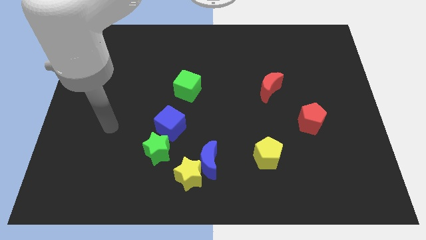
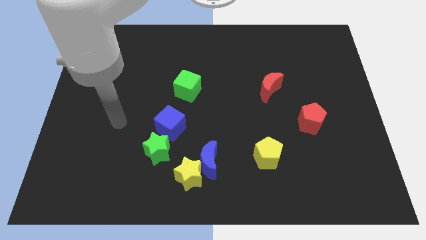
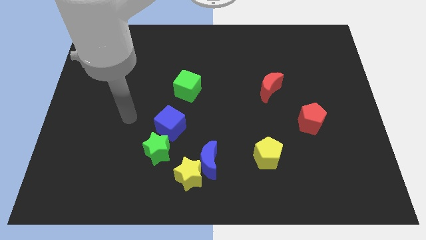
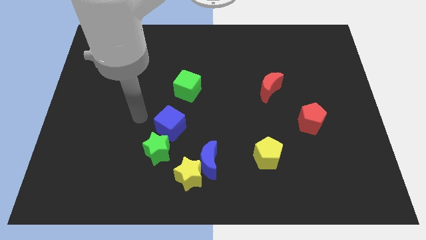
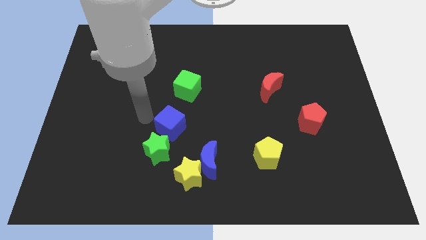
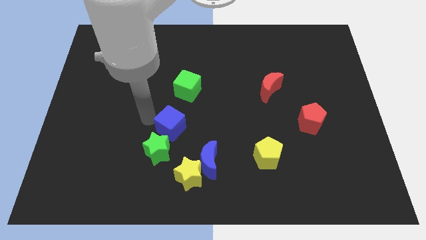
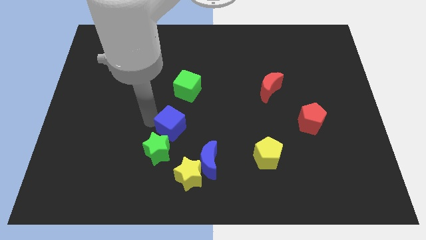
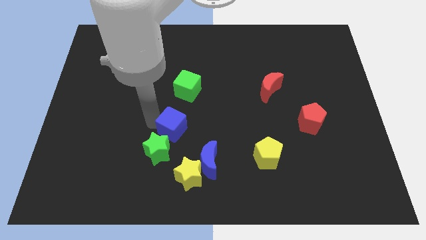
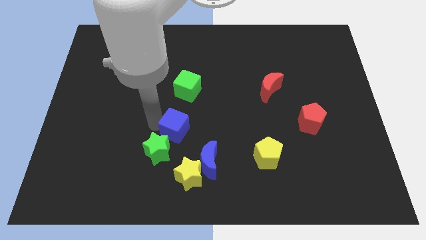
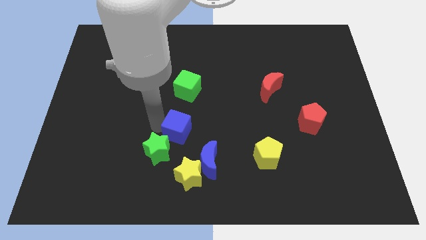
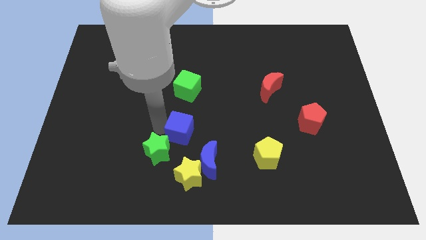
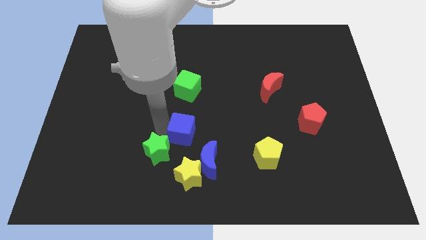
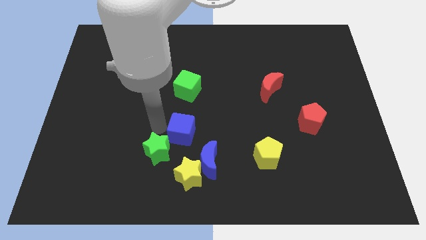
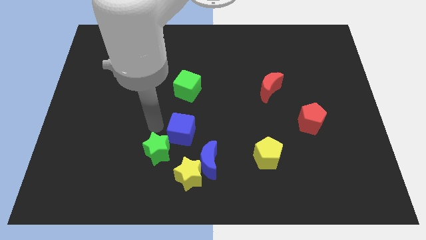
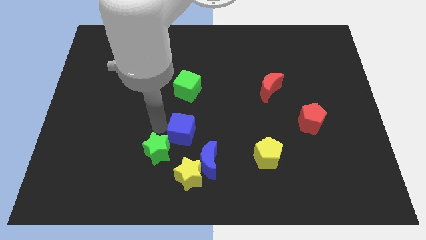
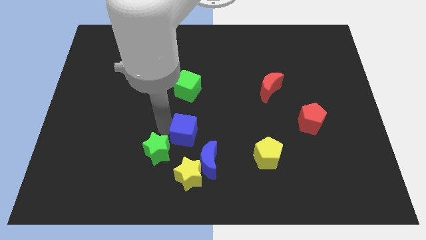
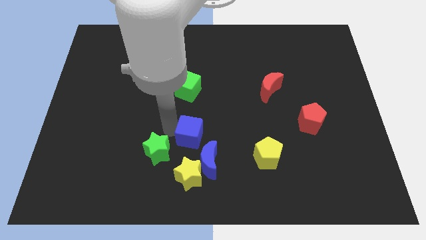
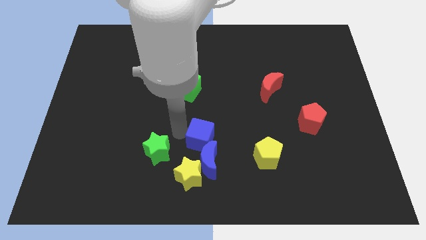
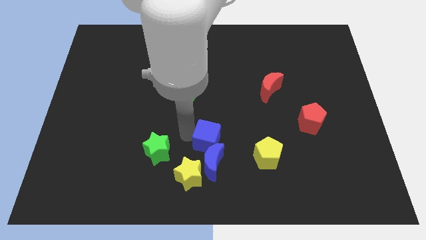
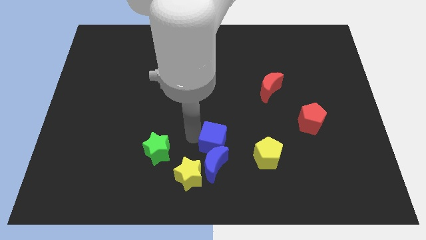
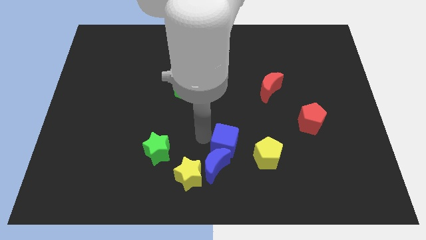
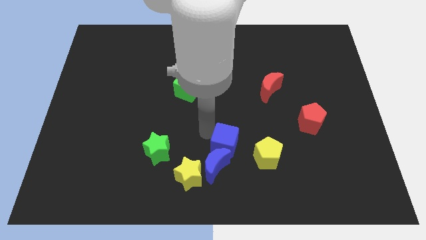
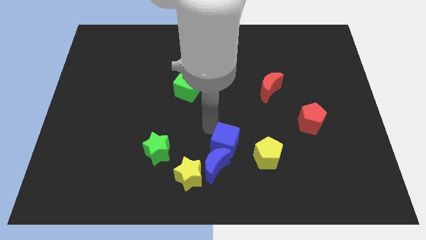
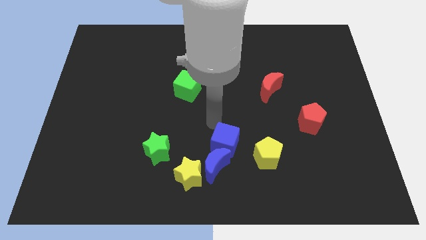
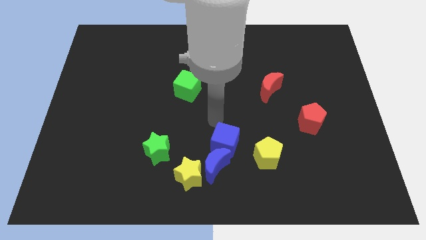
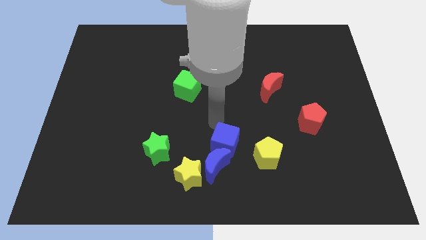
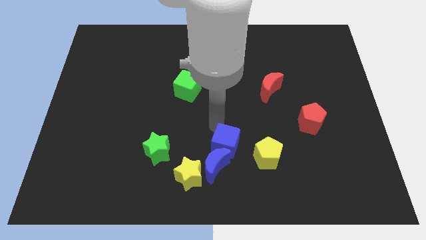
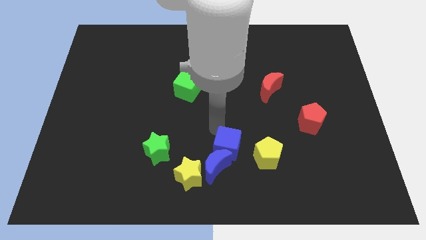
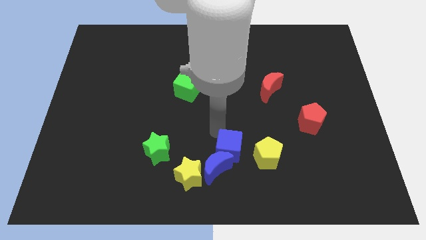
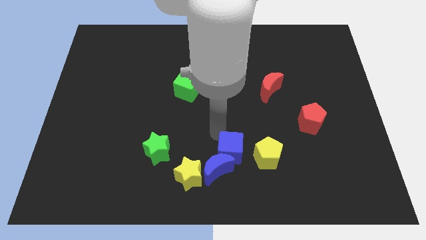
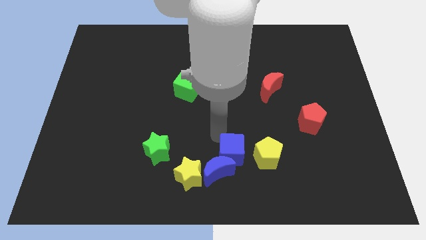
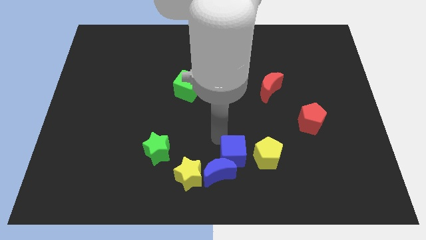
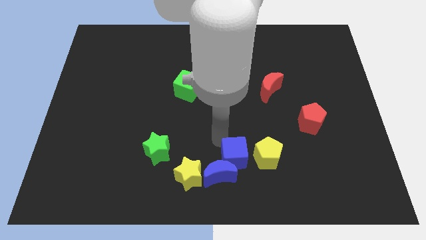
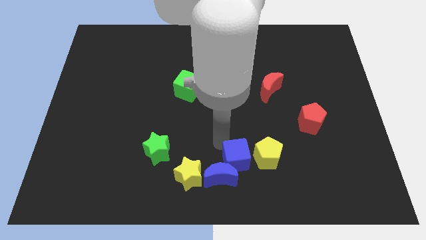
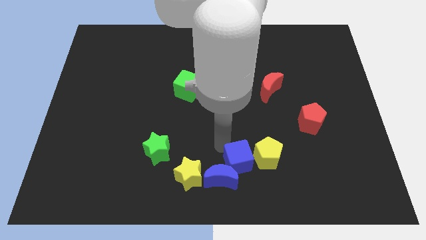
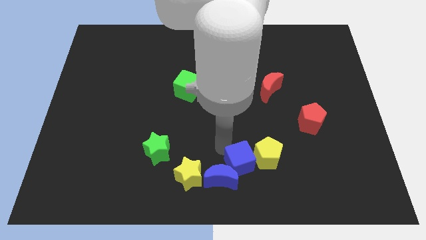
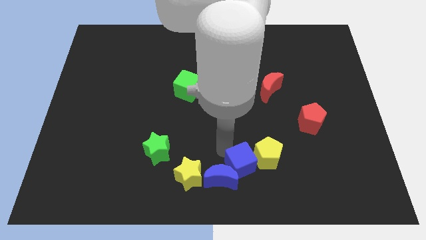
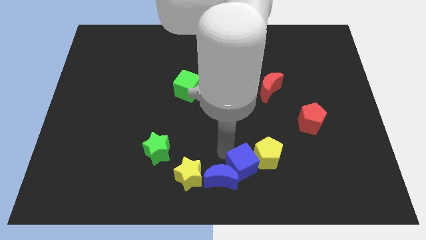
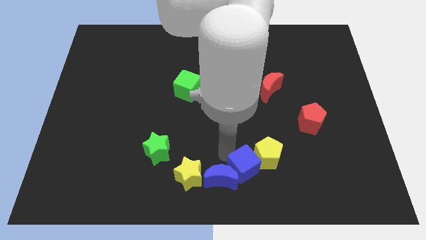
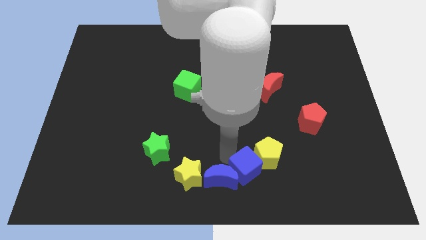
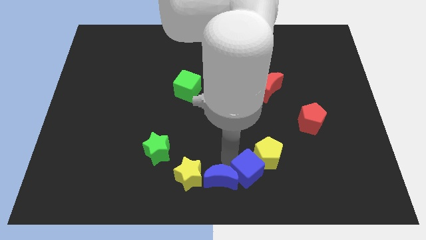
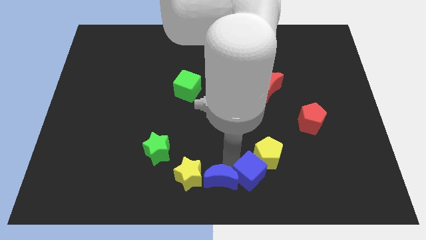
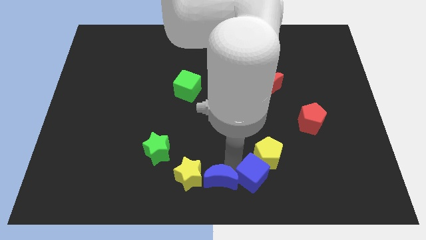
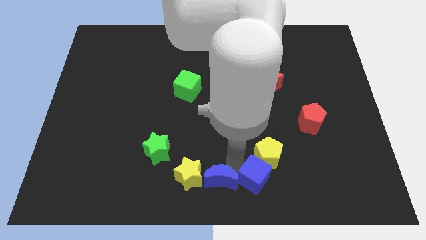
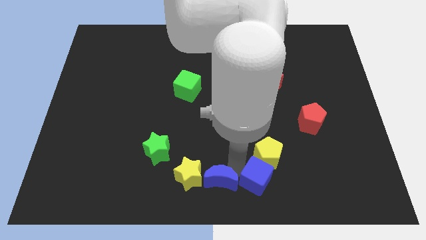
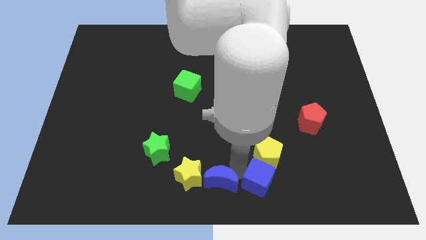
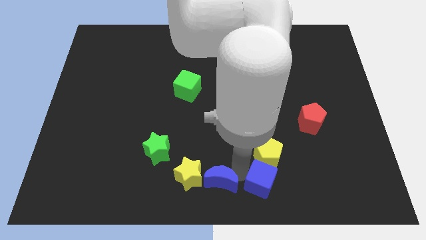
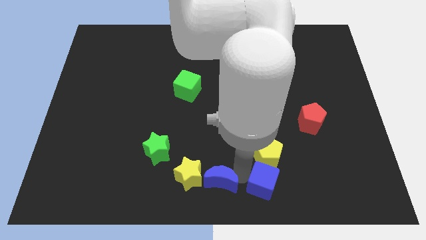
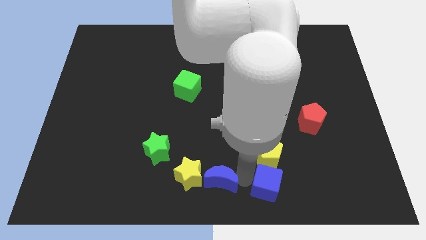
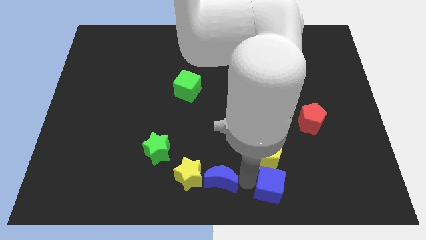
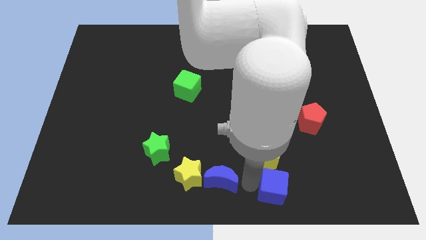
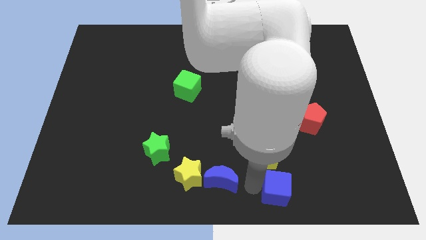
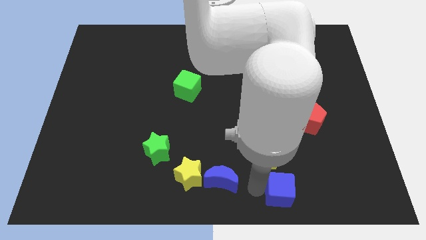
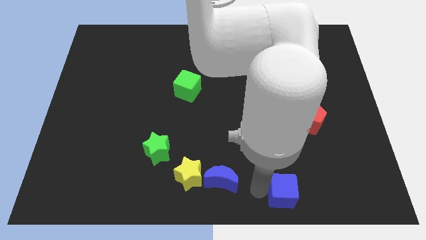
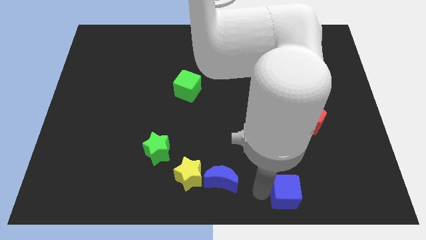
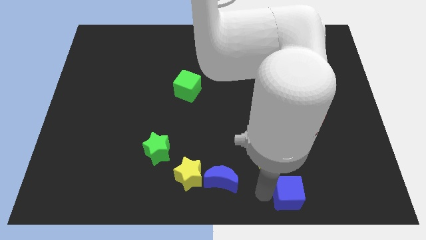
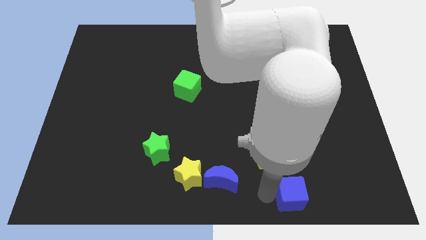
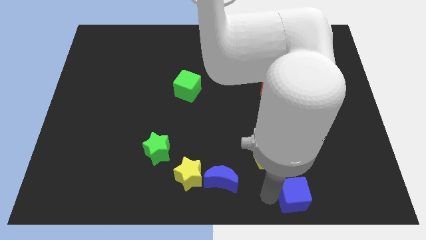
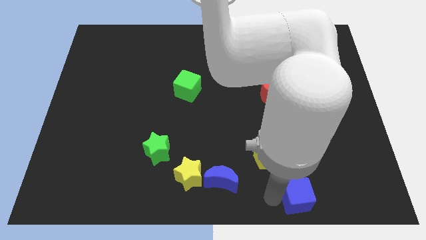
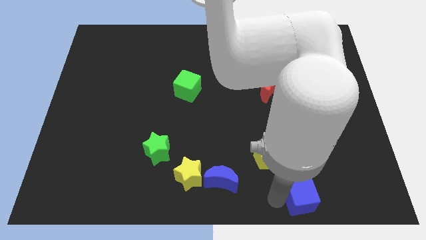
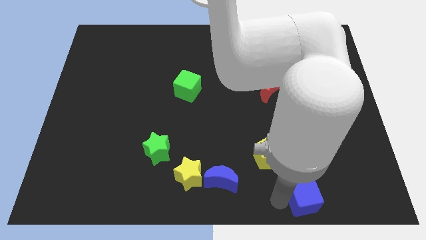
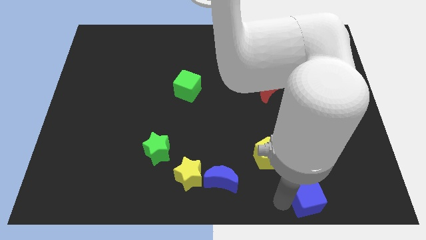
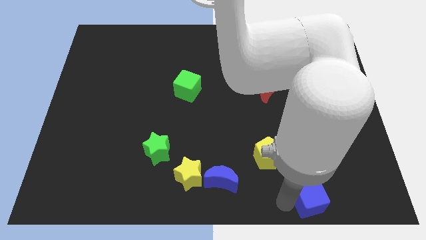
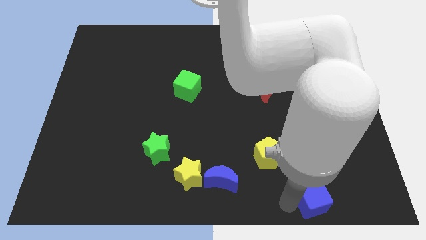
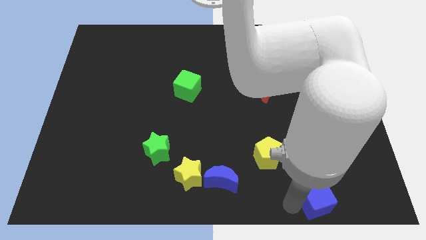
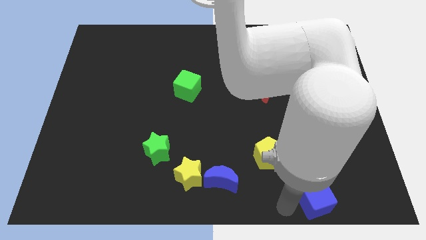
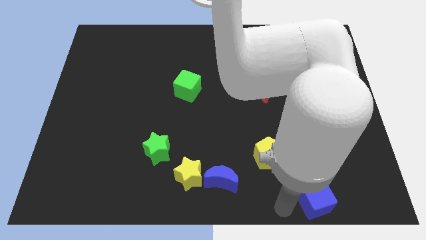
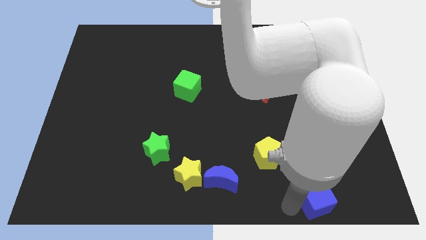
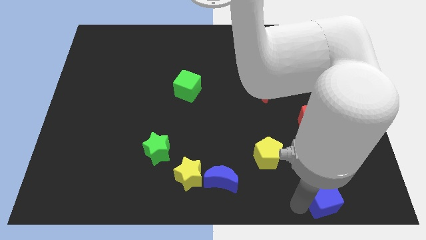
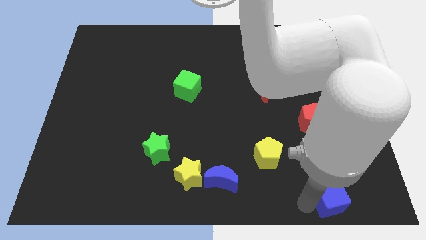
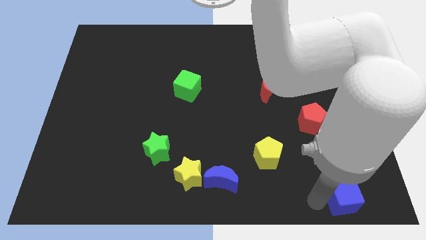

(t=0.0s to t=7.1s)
move the blue cube to the bottom right corner
